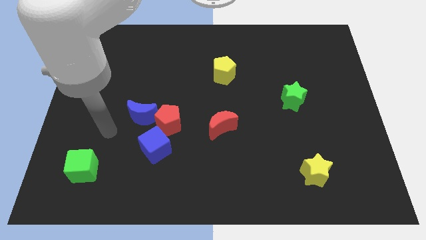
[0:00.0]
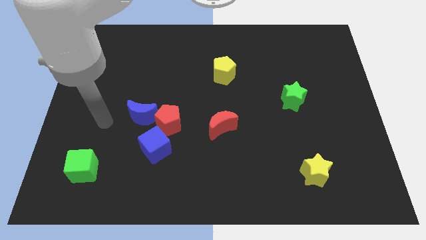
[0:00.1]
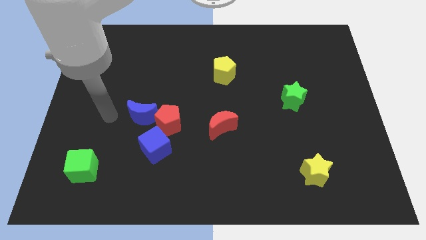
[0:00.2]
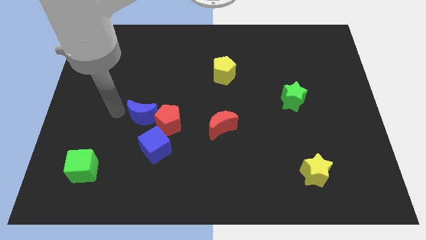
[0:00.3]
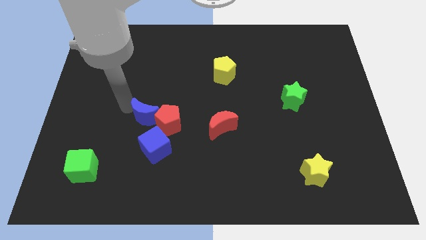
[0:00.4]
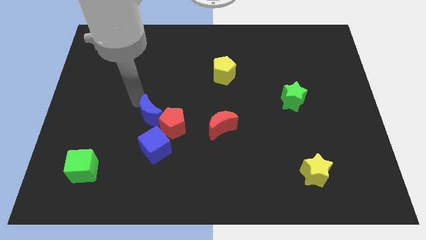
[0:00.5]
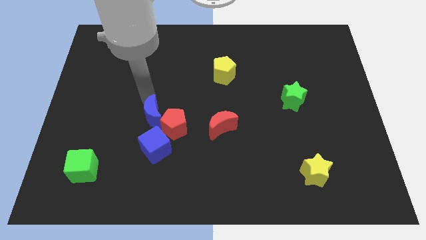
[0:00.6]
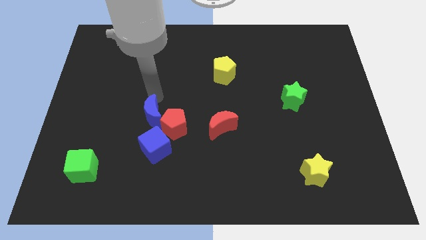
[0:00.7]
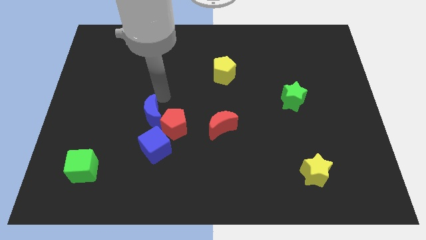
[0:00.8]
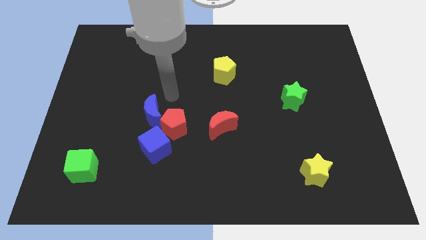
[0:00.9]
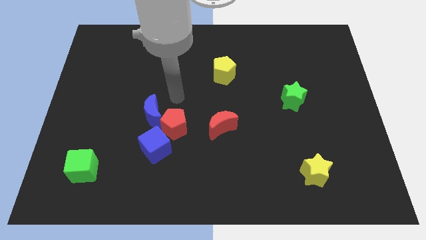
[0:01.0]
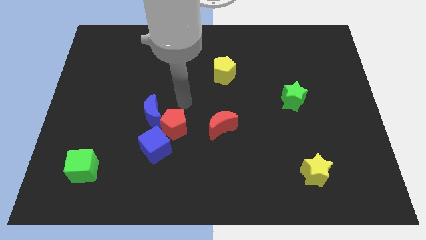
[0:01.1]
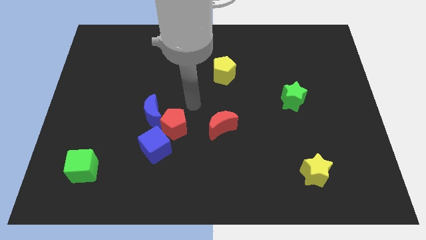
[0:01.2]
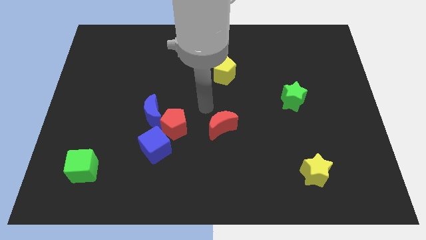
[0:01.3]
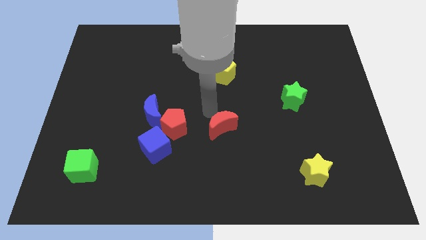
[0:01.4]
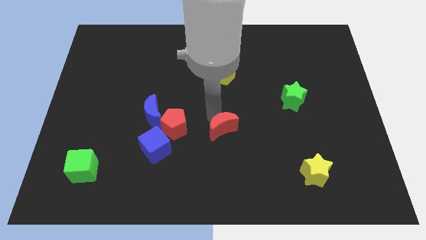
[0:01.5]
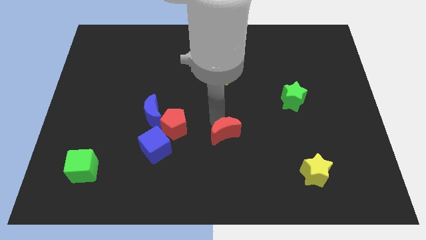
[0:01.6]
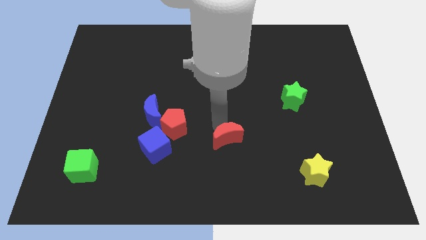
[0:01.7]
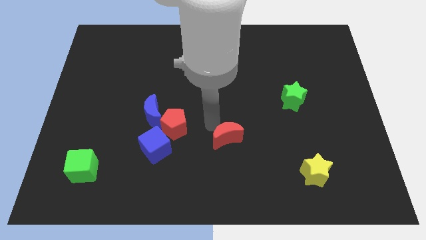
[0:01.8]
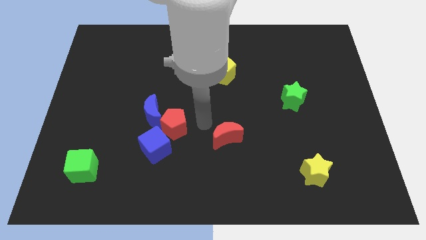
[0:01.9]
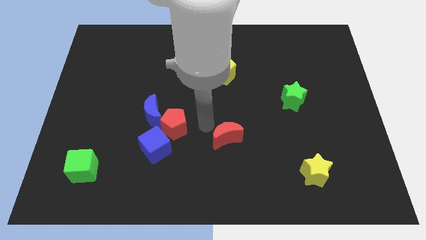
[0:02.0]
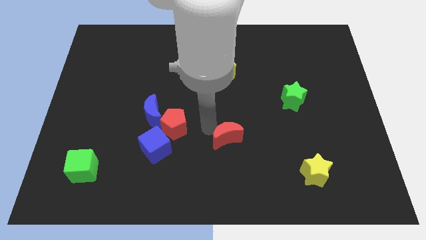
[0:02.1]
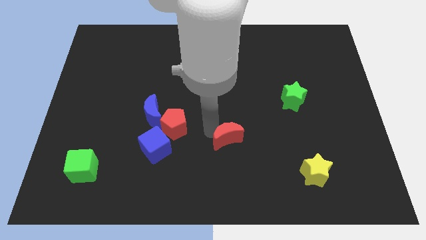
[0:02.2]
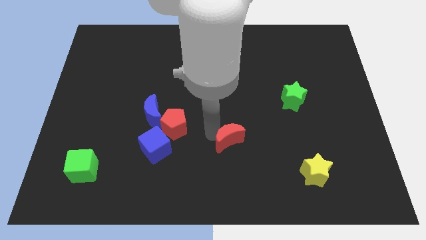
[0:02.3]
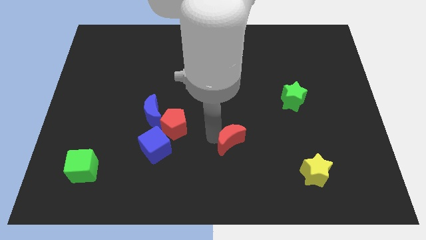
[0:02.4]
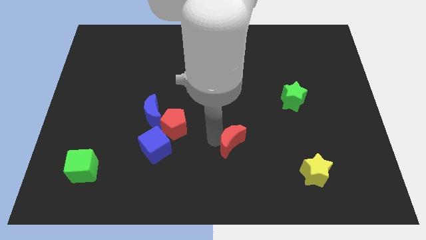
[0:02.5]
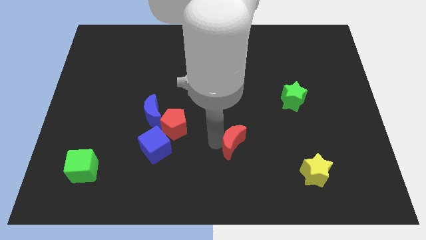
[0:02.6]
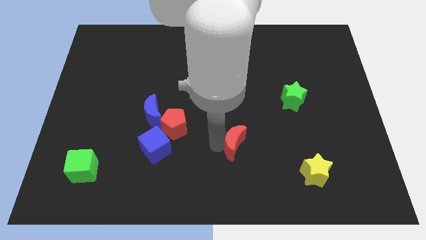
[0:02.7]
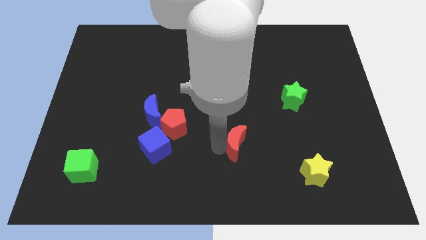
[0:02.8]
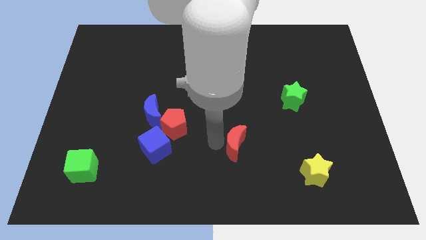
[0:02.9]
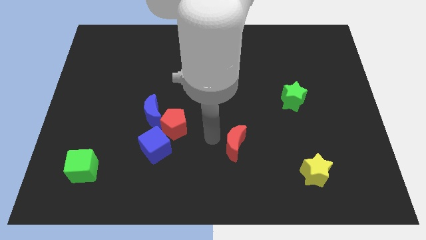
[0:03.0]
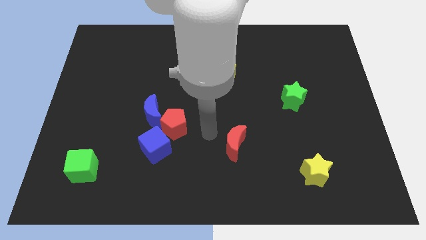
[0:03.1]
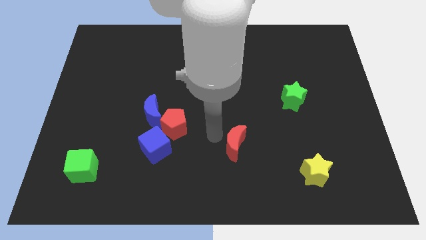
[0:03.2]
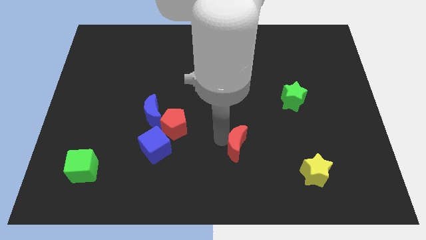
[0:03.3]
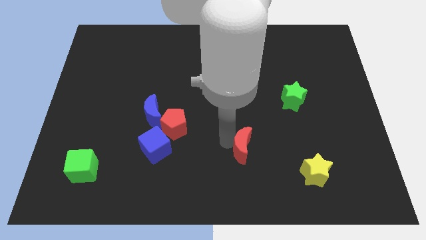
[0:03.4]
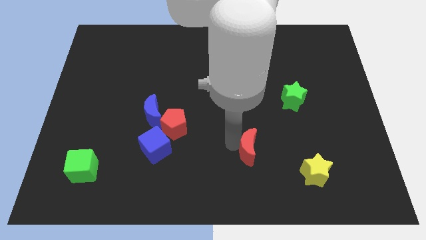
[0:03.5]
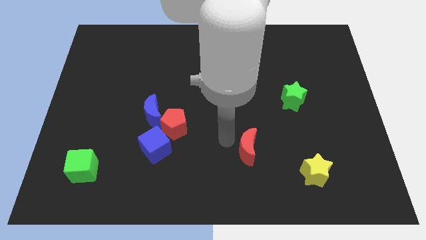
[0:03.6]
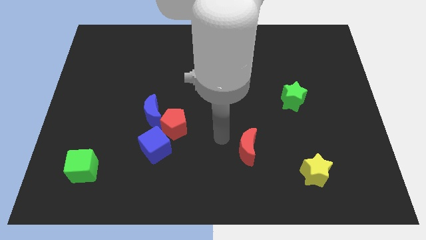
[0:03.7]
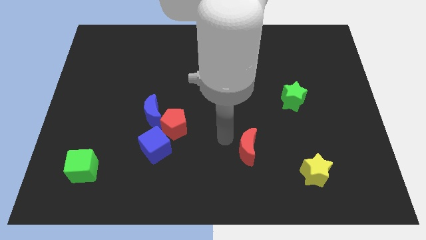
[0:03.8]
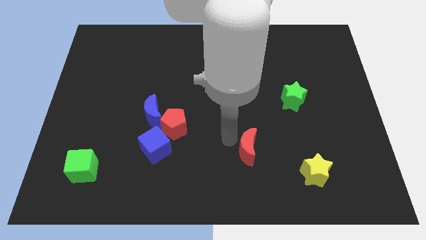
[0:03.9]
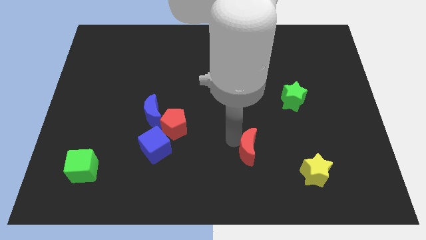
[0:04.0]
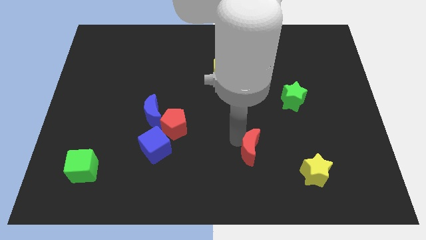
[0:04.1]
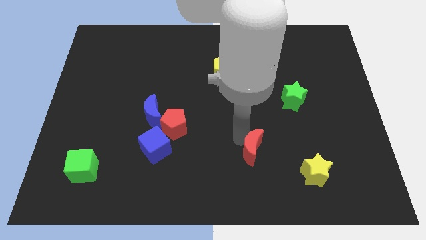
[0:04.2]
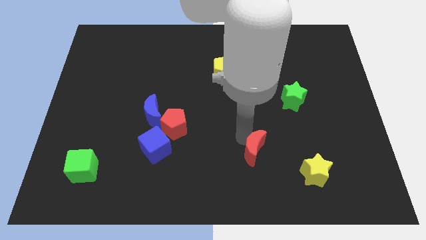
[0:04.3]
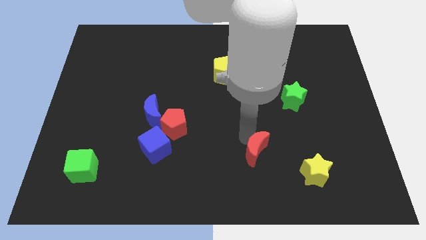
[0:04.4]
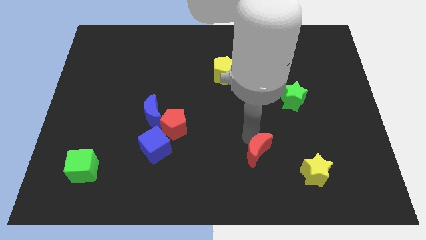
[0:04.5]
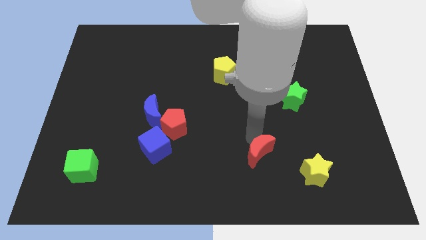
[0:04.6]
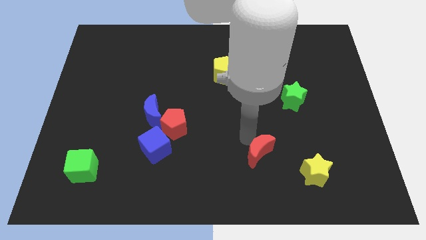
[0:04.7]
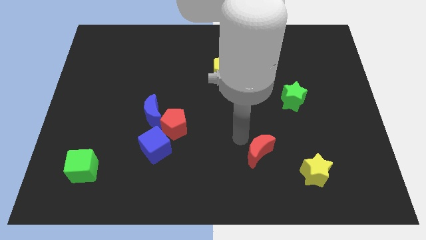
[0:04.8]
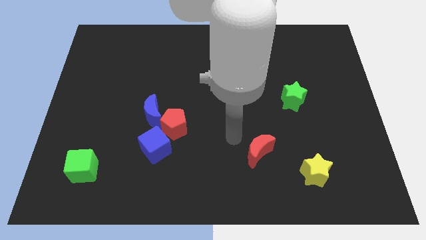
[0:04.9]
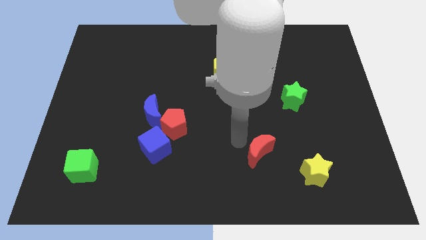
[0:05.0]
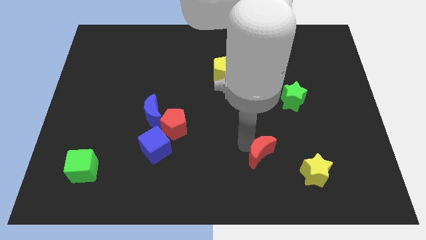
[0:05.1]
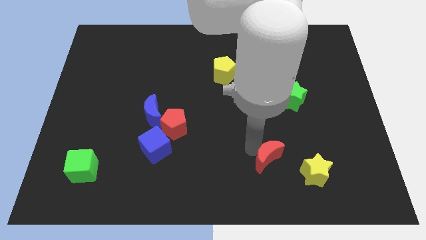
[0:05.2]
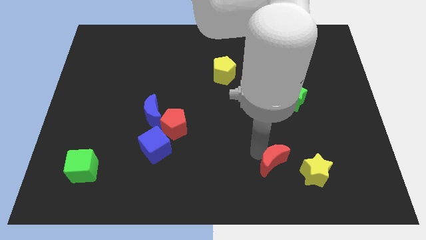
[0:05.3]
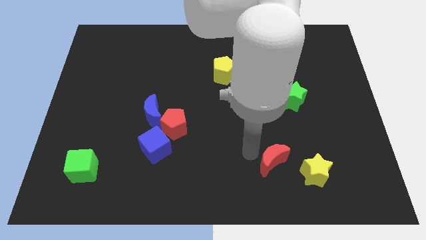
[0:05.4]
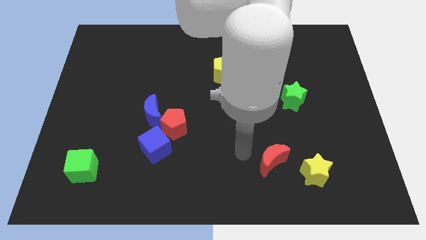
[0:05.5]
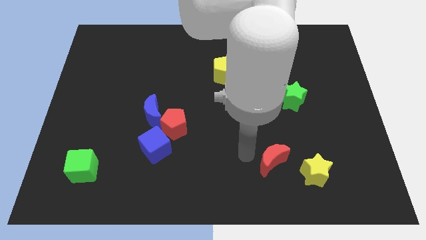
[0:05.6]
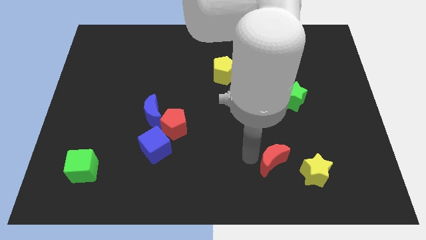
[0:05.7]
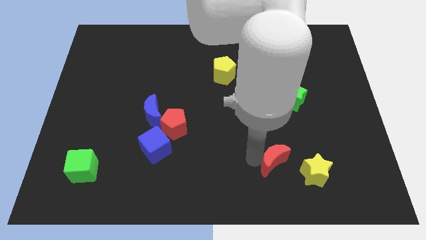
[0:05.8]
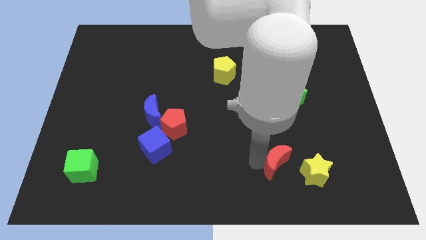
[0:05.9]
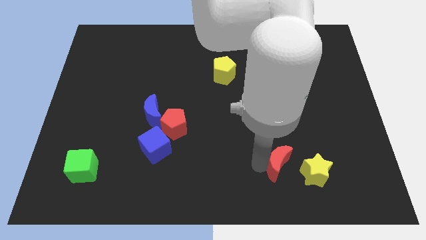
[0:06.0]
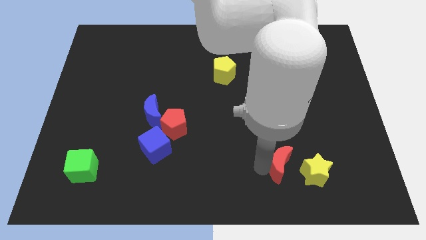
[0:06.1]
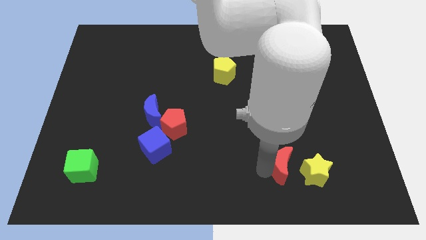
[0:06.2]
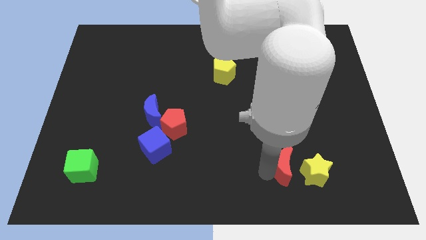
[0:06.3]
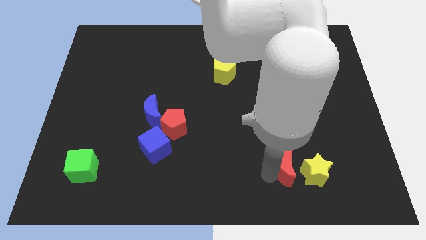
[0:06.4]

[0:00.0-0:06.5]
push the red moon close to the yellow star

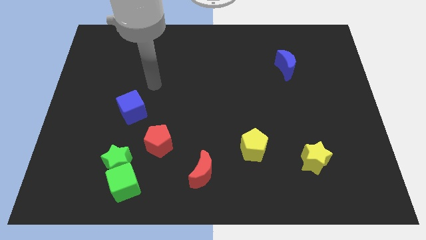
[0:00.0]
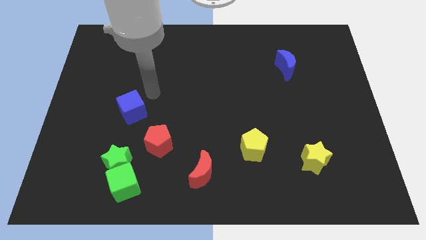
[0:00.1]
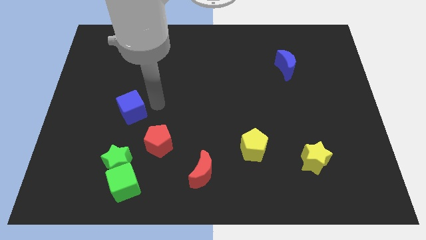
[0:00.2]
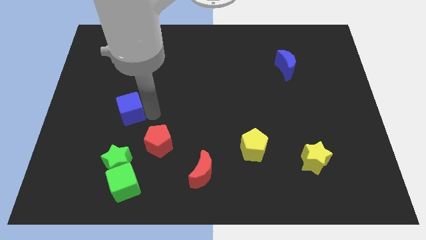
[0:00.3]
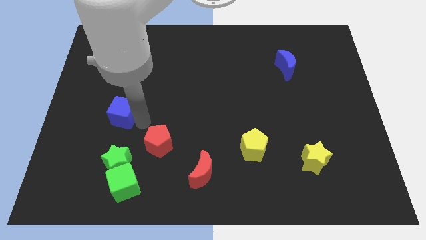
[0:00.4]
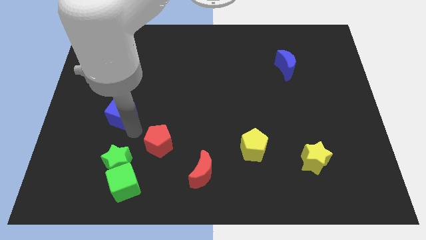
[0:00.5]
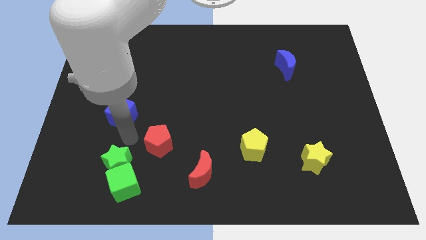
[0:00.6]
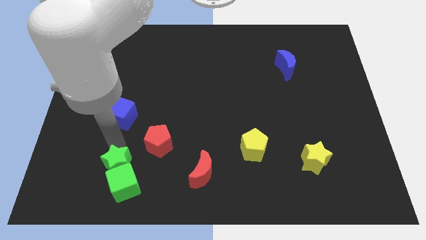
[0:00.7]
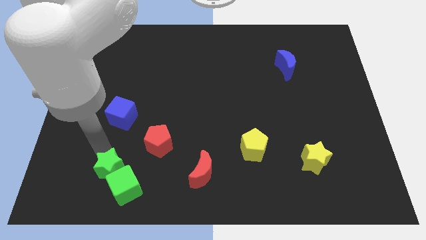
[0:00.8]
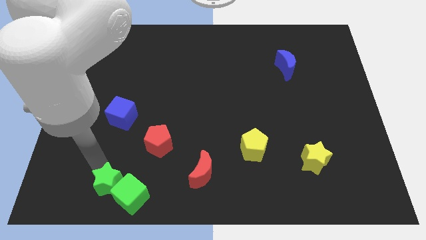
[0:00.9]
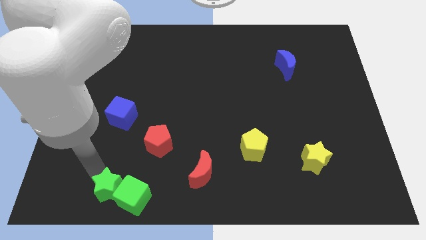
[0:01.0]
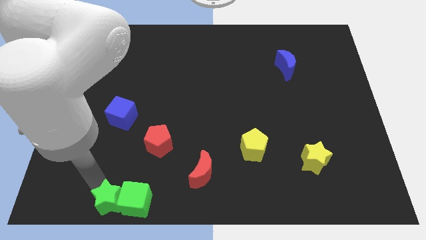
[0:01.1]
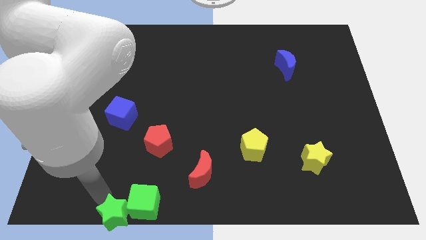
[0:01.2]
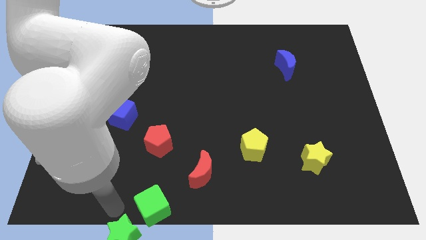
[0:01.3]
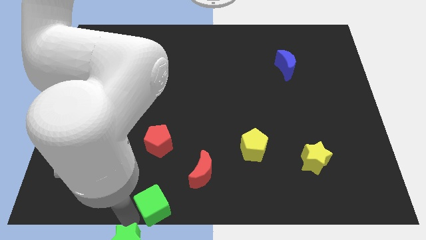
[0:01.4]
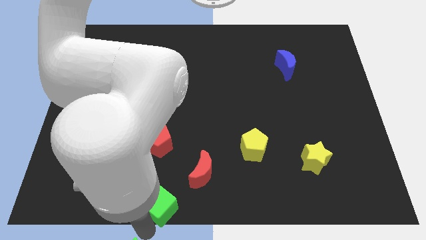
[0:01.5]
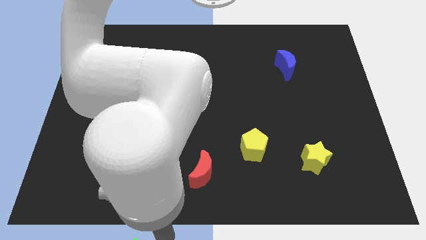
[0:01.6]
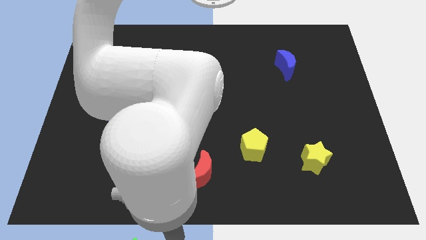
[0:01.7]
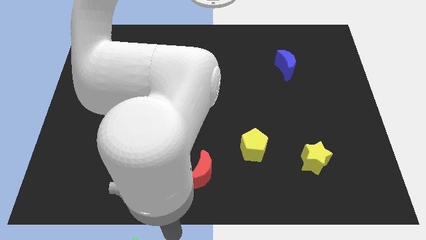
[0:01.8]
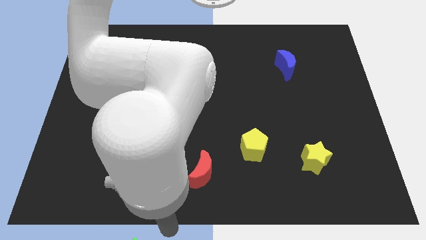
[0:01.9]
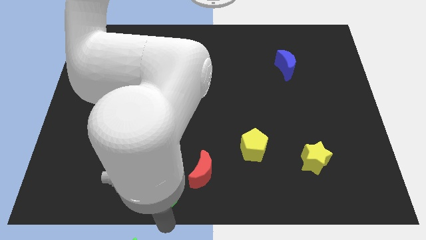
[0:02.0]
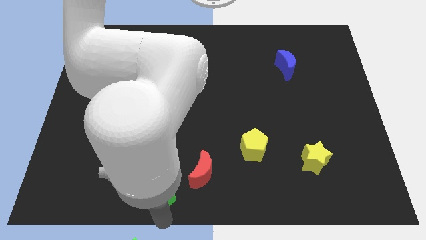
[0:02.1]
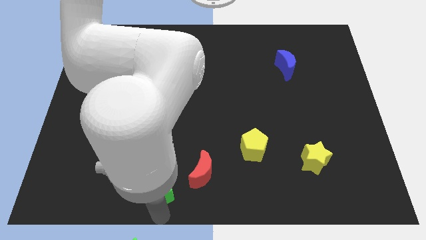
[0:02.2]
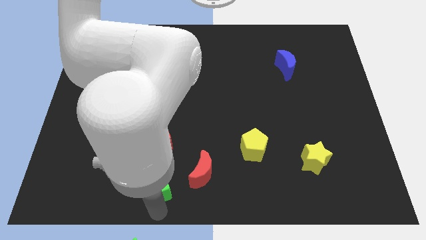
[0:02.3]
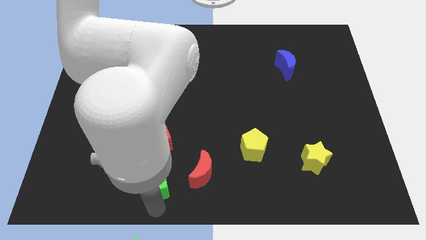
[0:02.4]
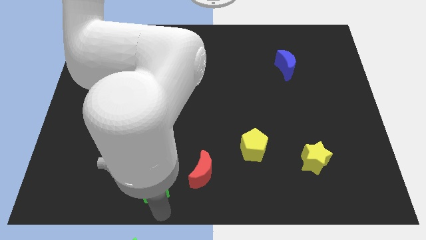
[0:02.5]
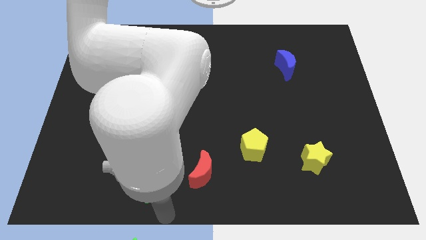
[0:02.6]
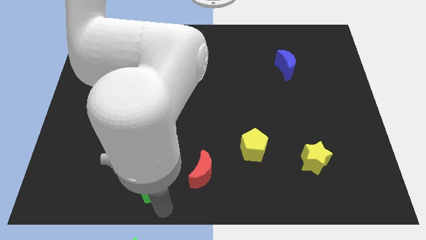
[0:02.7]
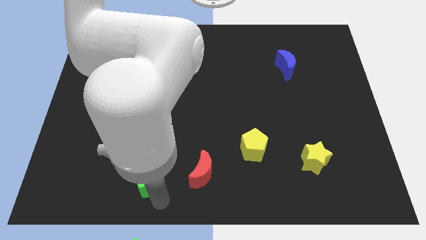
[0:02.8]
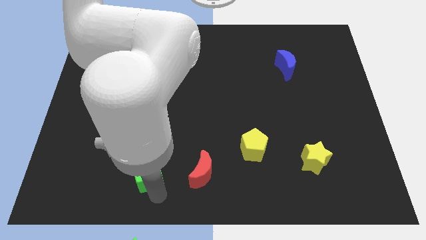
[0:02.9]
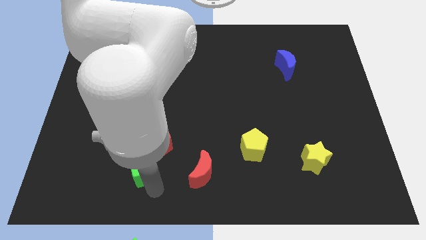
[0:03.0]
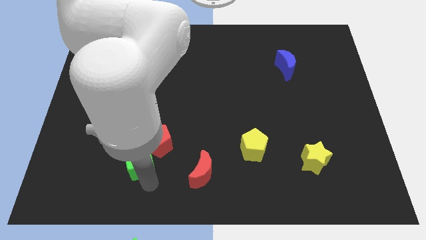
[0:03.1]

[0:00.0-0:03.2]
push the green cube close to the red pentagon
